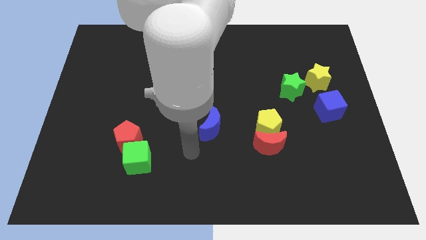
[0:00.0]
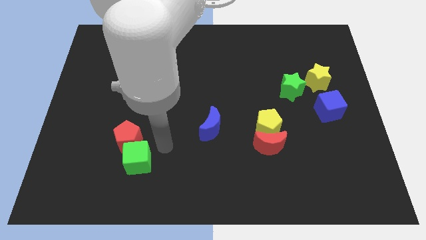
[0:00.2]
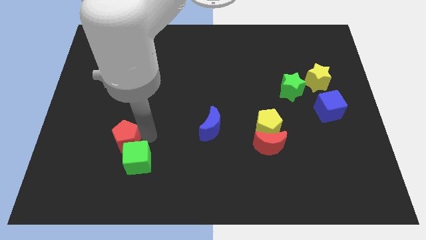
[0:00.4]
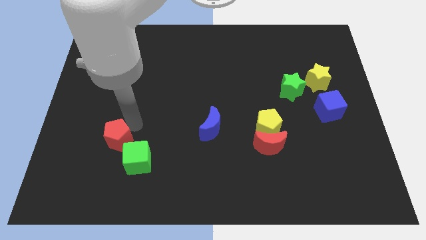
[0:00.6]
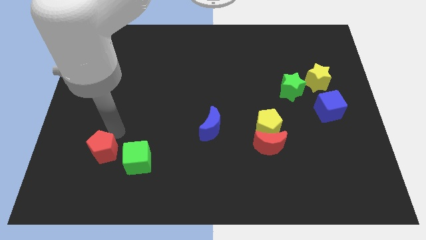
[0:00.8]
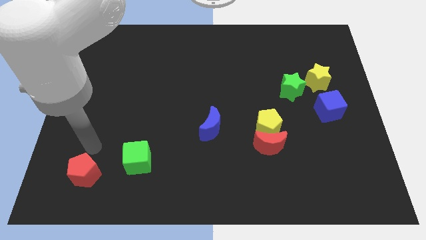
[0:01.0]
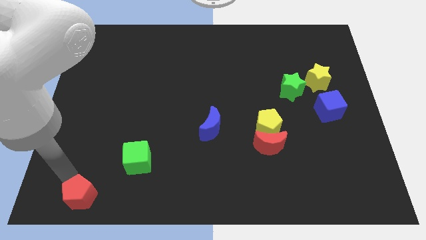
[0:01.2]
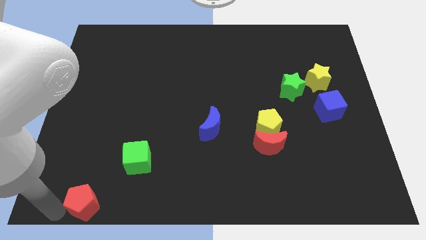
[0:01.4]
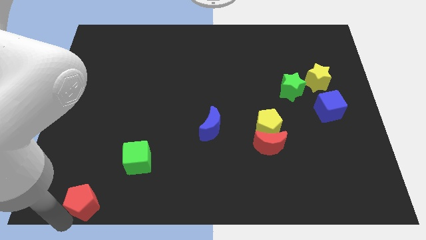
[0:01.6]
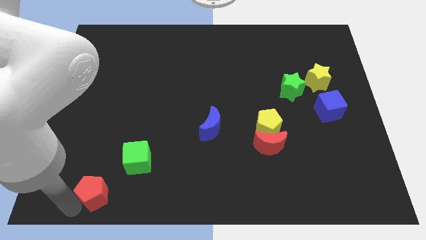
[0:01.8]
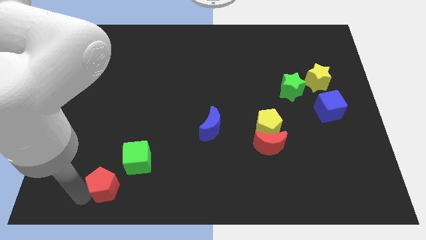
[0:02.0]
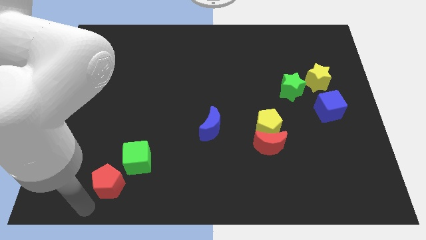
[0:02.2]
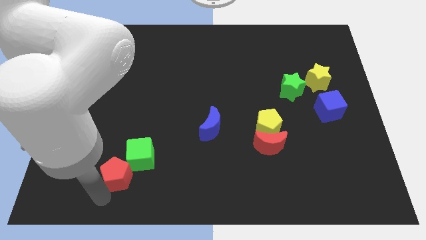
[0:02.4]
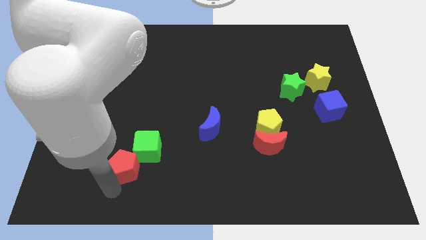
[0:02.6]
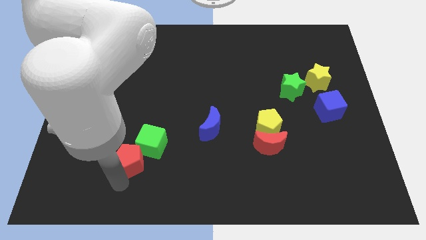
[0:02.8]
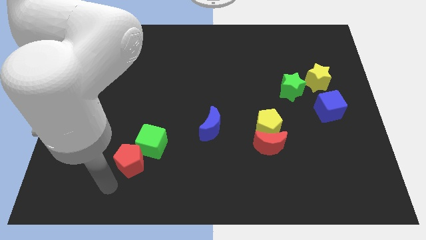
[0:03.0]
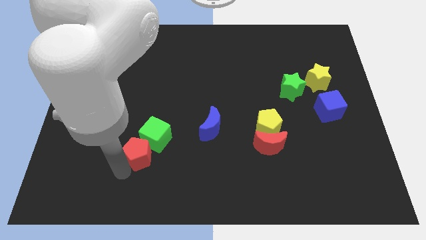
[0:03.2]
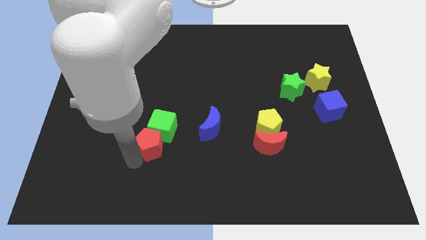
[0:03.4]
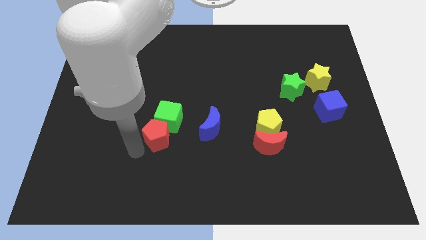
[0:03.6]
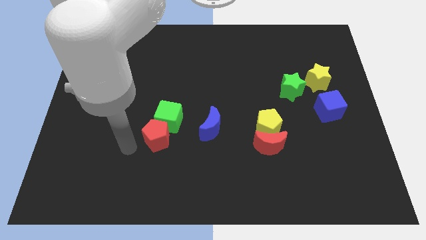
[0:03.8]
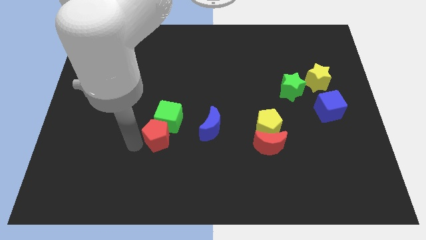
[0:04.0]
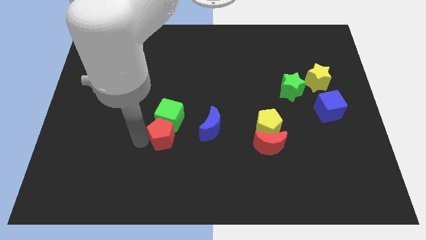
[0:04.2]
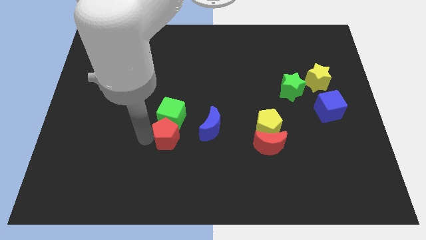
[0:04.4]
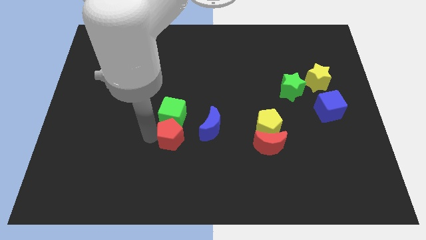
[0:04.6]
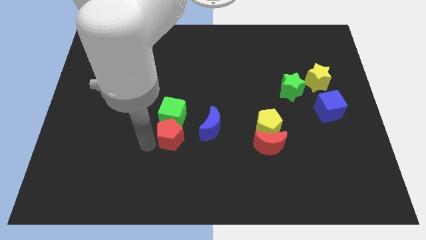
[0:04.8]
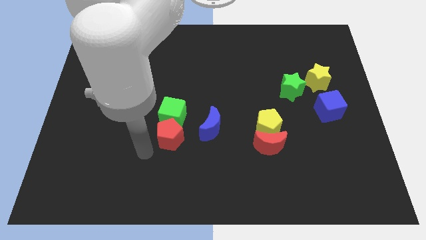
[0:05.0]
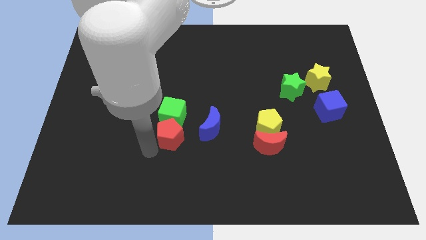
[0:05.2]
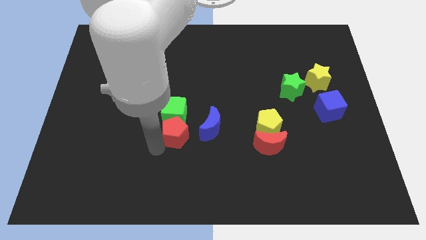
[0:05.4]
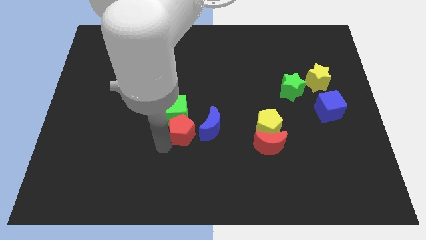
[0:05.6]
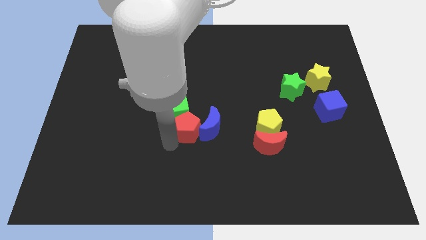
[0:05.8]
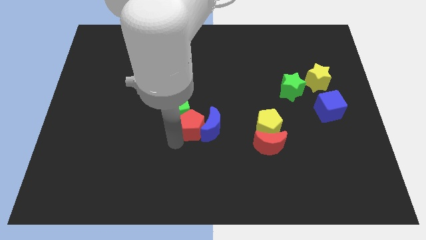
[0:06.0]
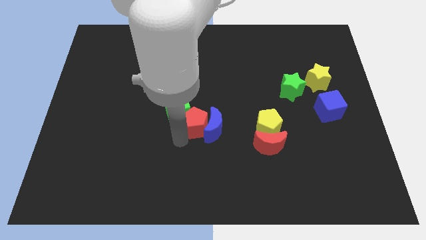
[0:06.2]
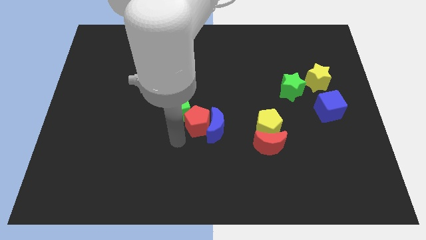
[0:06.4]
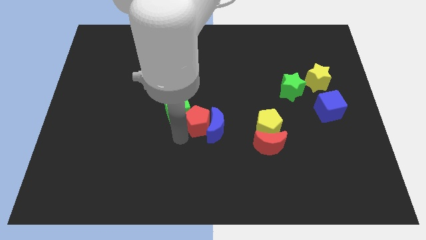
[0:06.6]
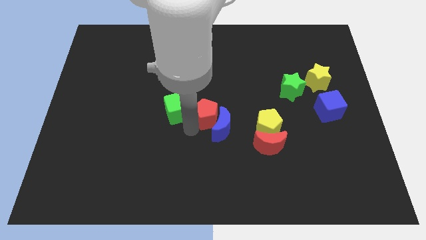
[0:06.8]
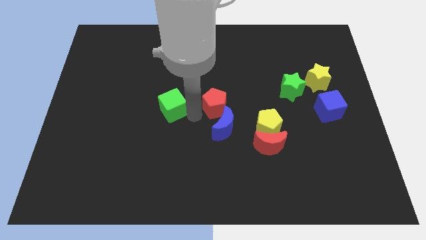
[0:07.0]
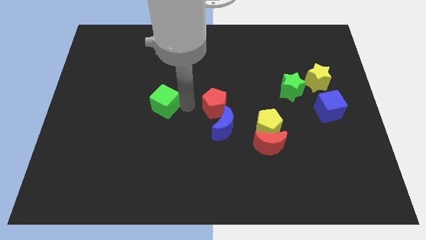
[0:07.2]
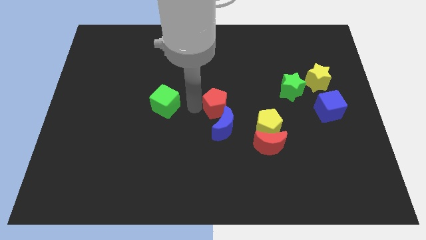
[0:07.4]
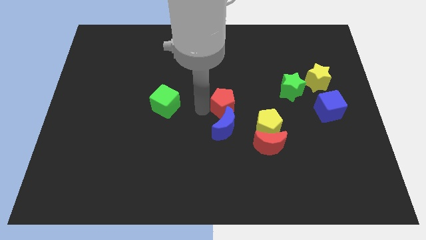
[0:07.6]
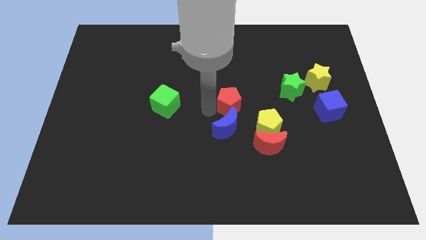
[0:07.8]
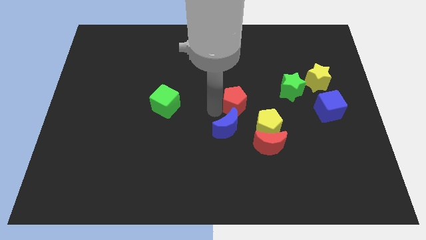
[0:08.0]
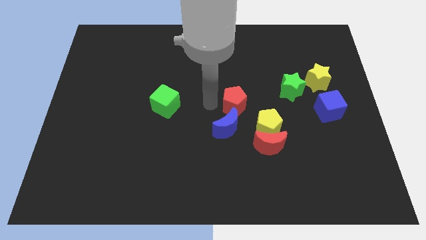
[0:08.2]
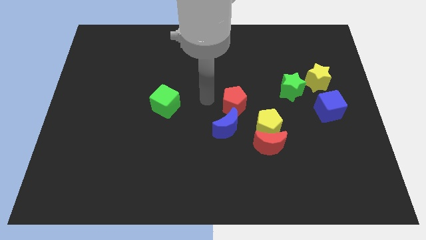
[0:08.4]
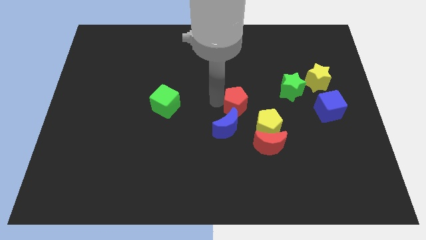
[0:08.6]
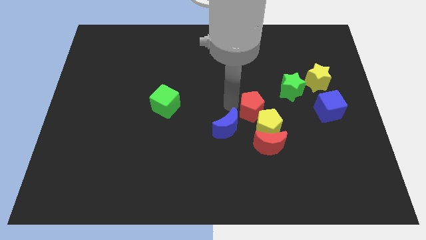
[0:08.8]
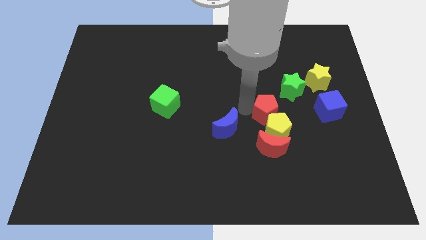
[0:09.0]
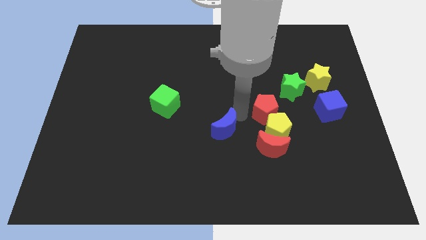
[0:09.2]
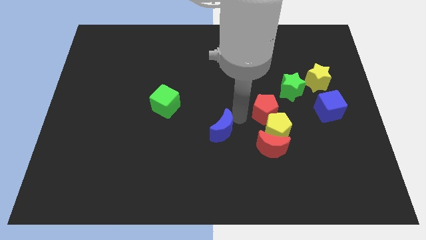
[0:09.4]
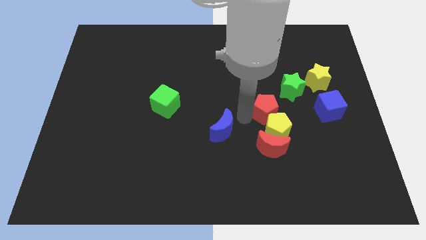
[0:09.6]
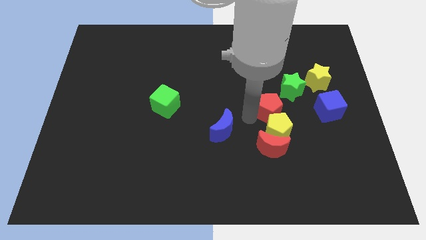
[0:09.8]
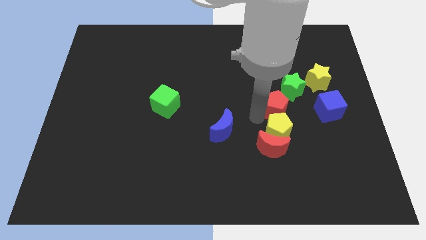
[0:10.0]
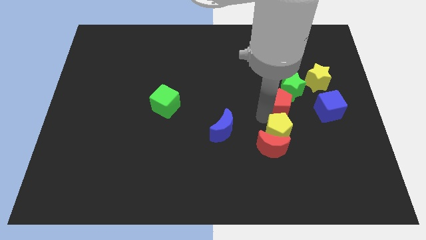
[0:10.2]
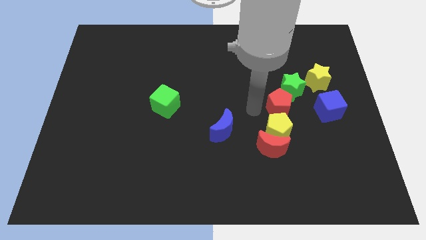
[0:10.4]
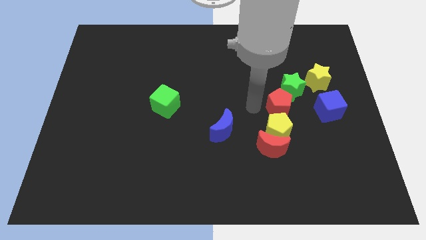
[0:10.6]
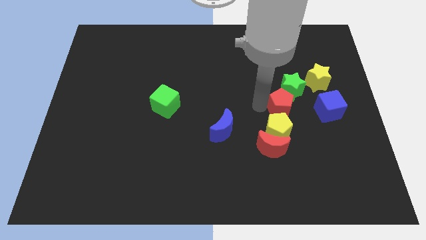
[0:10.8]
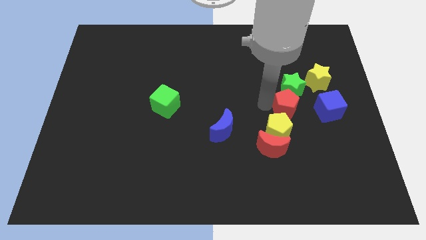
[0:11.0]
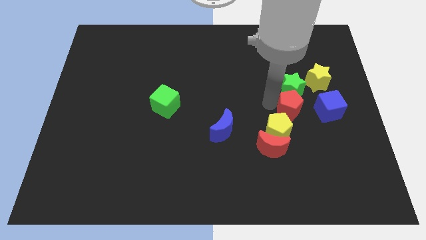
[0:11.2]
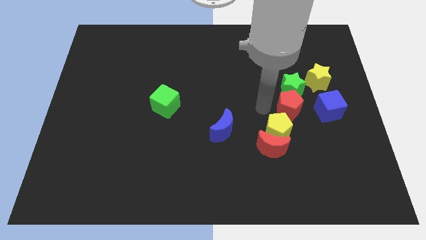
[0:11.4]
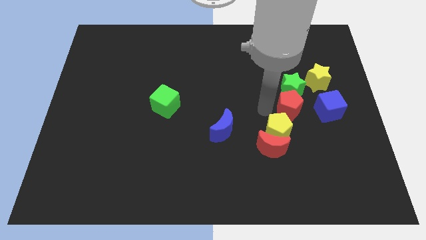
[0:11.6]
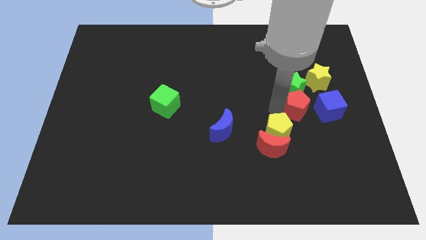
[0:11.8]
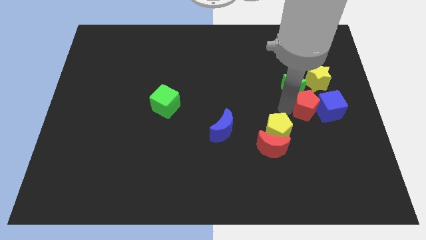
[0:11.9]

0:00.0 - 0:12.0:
put the red pentagon close to the blue cube
